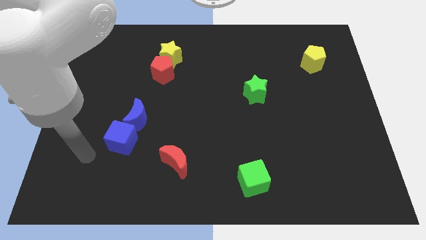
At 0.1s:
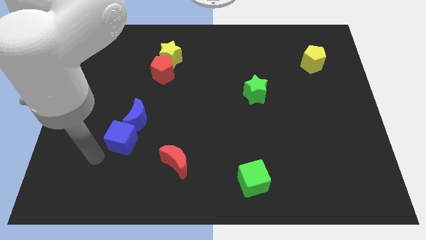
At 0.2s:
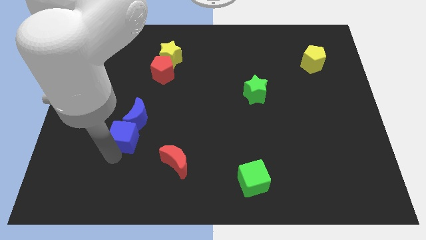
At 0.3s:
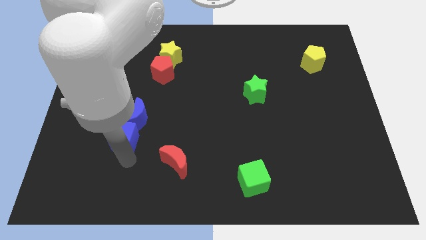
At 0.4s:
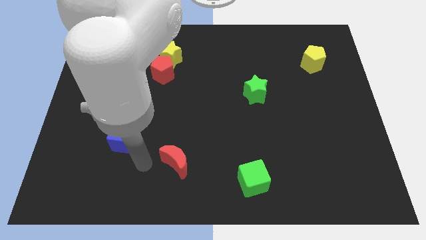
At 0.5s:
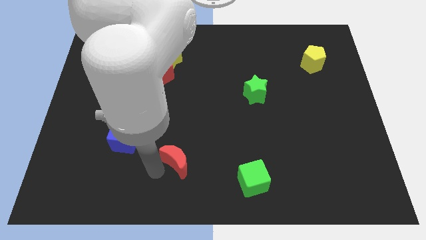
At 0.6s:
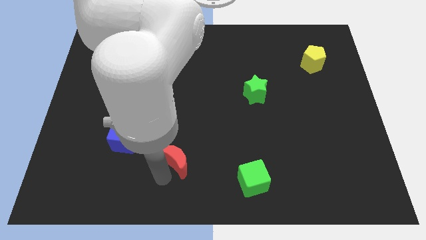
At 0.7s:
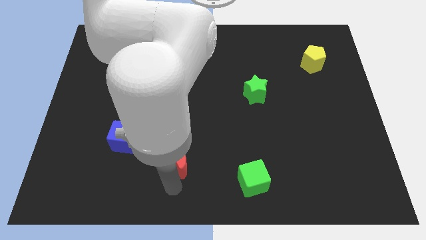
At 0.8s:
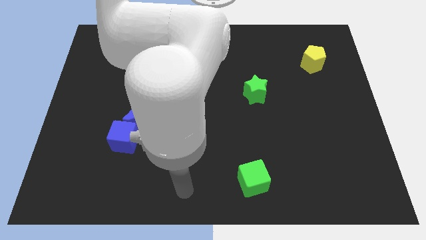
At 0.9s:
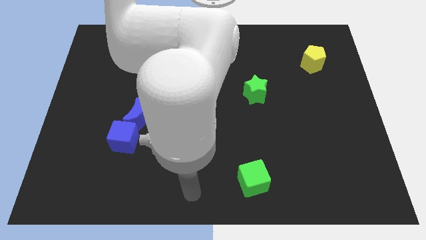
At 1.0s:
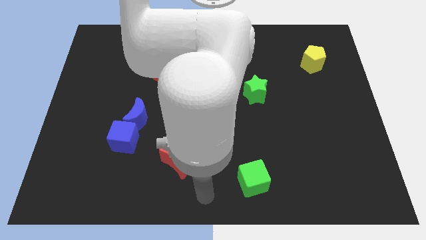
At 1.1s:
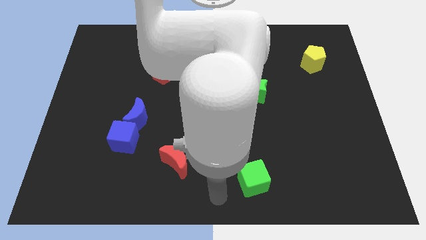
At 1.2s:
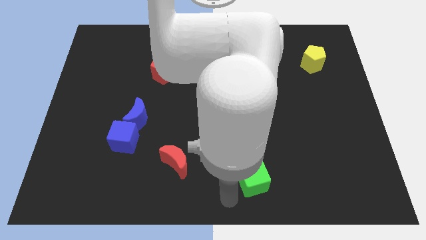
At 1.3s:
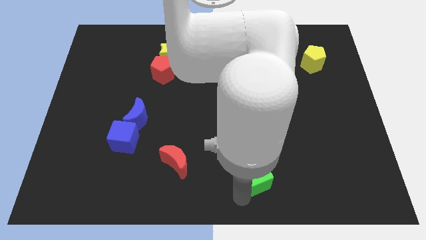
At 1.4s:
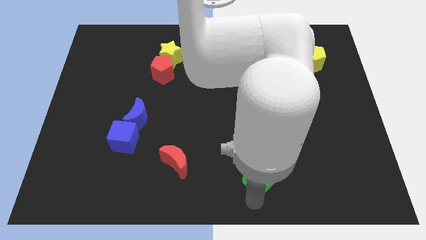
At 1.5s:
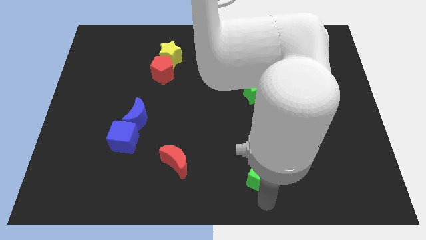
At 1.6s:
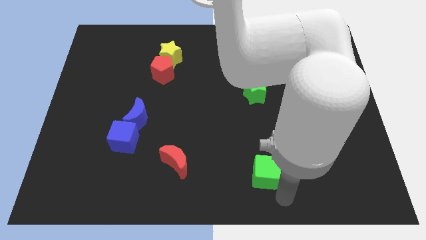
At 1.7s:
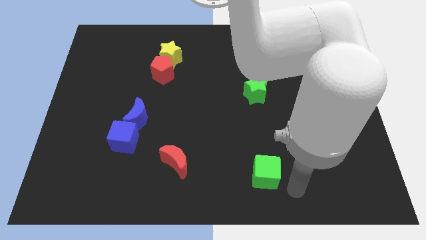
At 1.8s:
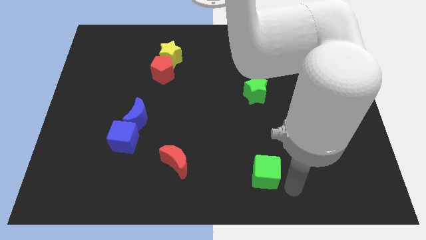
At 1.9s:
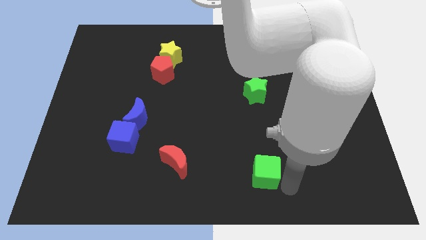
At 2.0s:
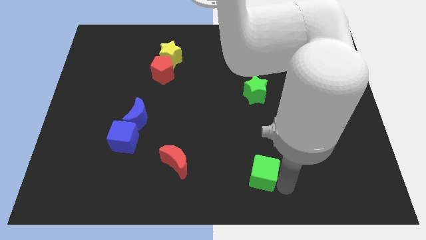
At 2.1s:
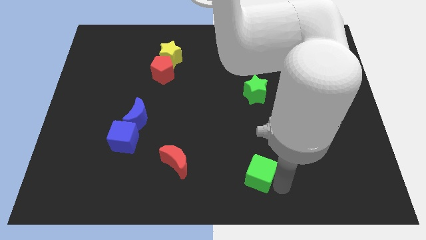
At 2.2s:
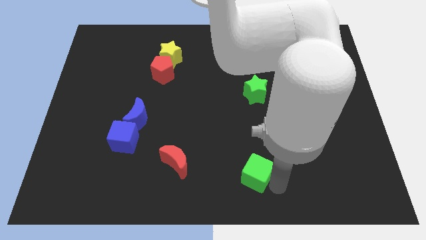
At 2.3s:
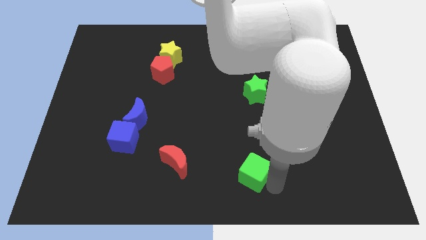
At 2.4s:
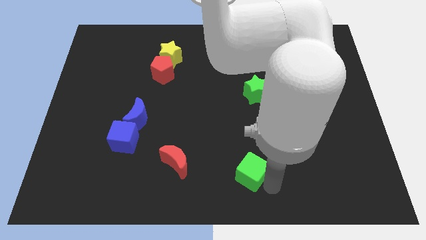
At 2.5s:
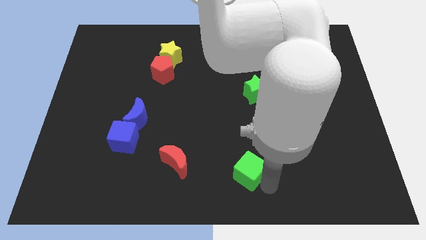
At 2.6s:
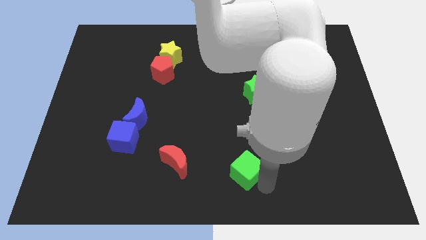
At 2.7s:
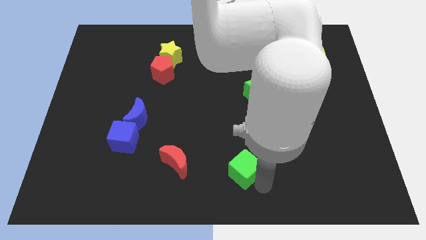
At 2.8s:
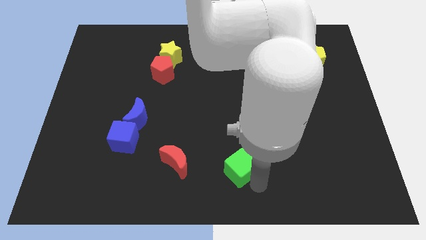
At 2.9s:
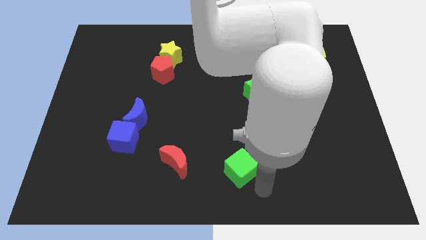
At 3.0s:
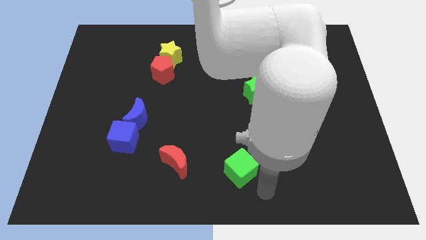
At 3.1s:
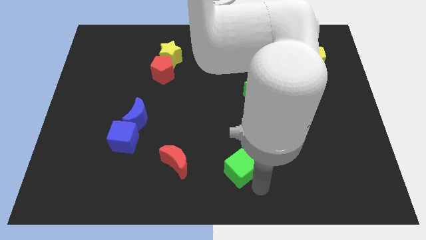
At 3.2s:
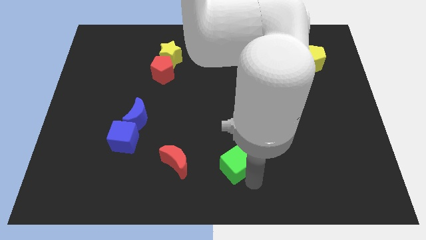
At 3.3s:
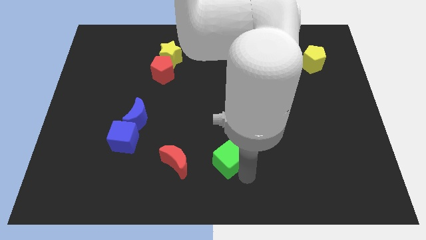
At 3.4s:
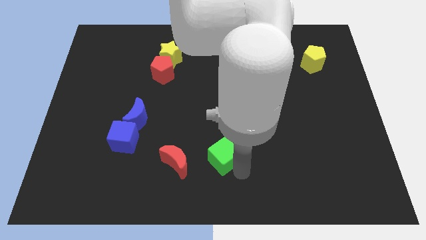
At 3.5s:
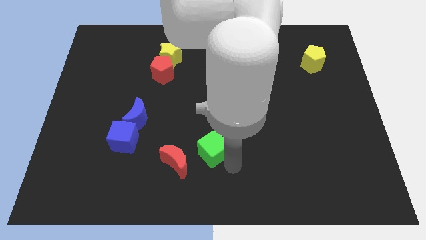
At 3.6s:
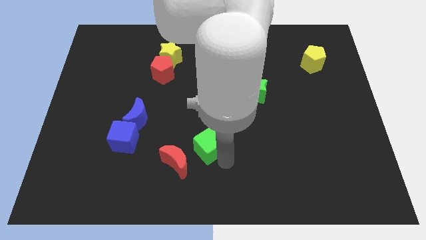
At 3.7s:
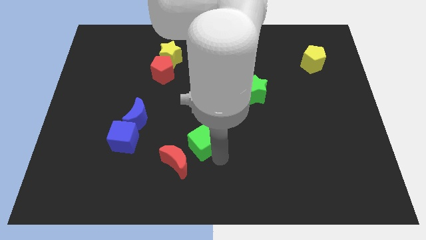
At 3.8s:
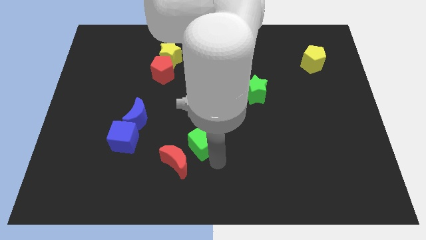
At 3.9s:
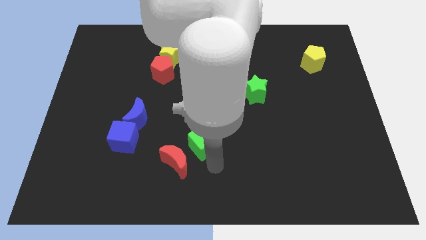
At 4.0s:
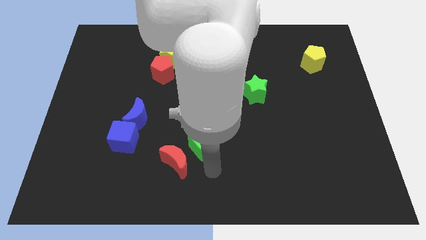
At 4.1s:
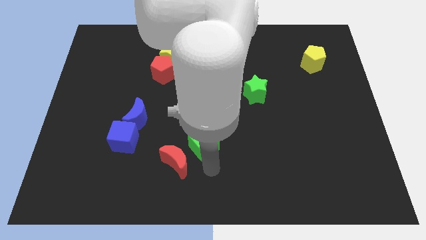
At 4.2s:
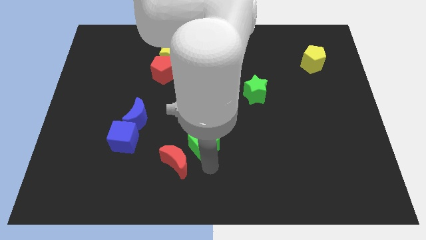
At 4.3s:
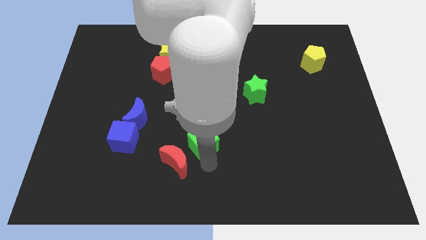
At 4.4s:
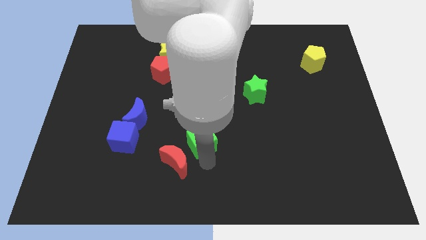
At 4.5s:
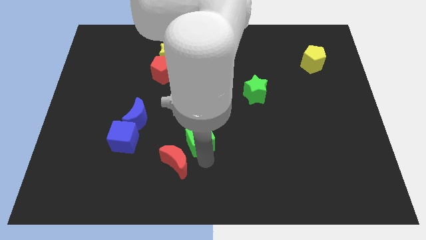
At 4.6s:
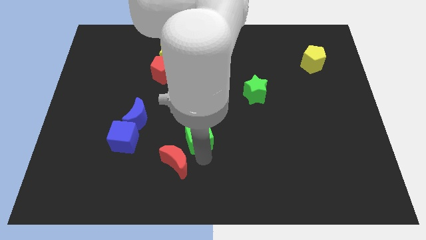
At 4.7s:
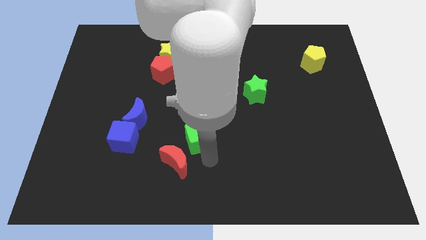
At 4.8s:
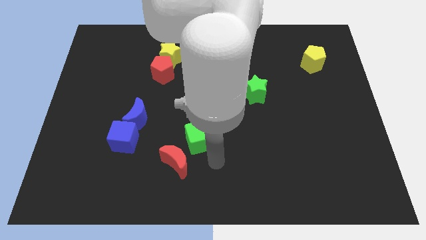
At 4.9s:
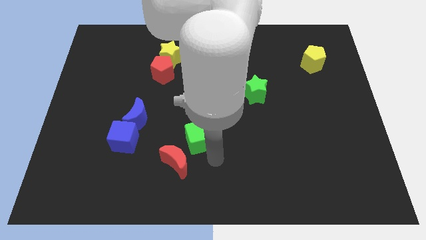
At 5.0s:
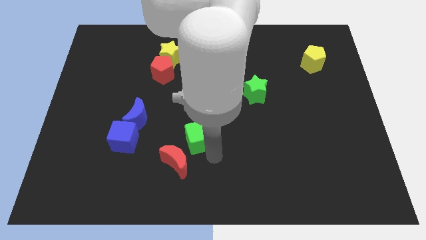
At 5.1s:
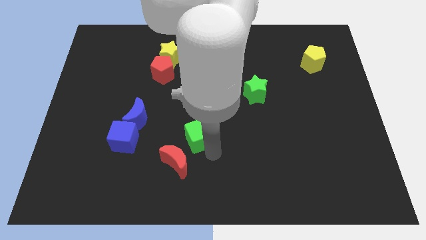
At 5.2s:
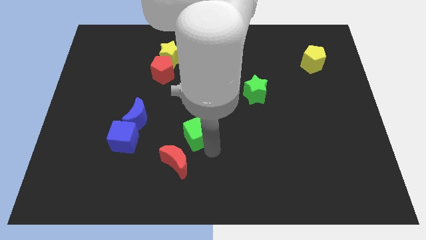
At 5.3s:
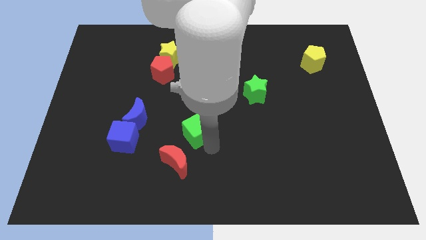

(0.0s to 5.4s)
slide the green cube to the right side of the blue moon

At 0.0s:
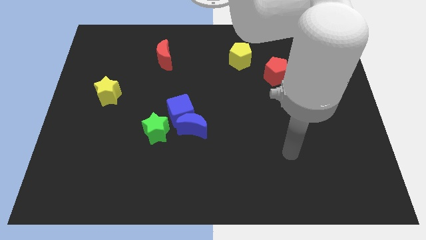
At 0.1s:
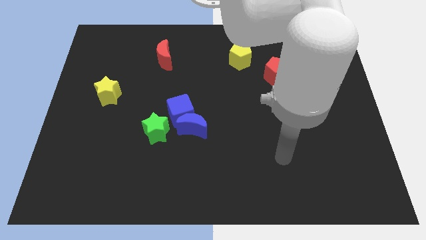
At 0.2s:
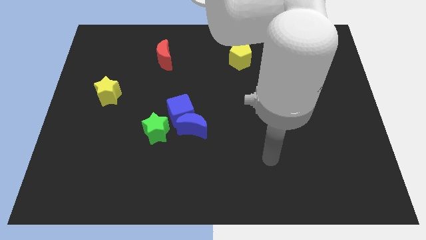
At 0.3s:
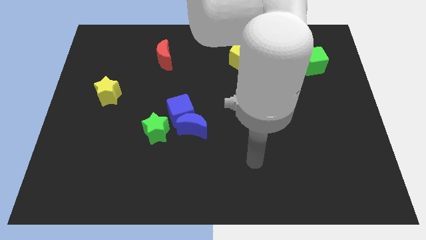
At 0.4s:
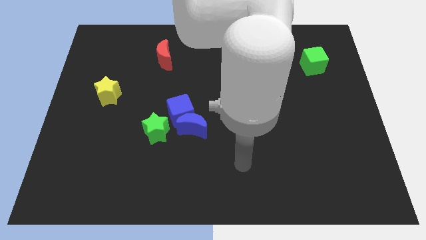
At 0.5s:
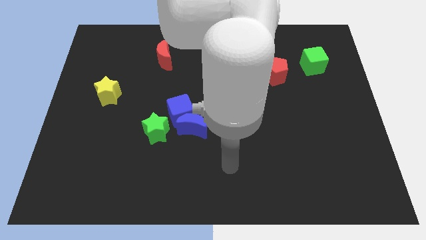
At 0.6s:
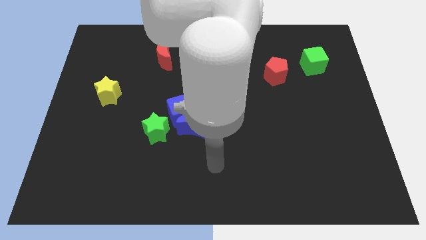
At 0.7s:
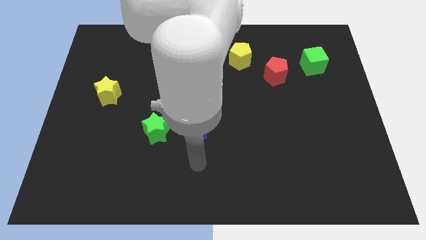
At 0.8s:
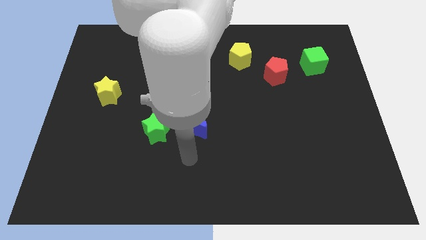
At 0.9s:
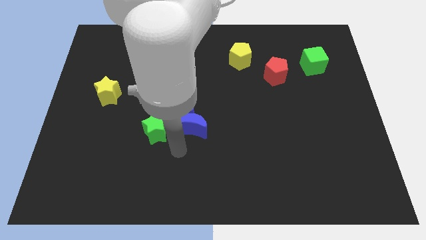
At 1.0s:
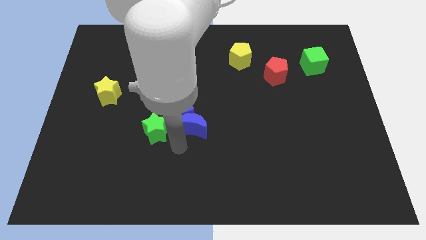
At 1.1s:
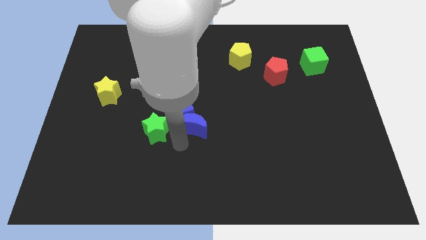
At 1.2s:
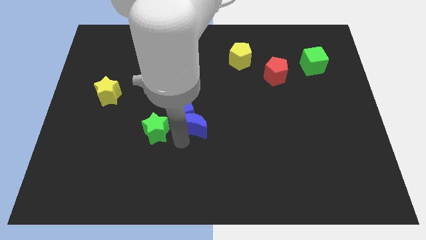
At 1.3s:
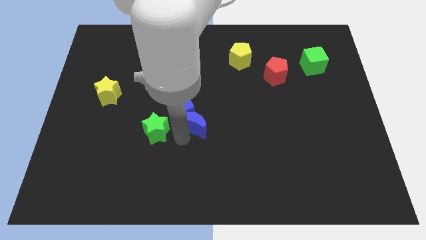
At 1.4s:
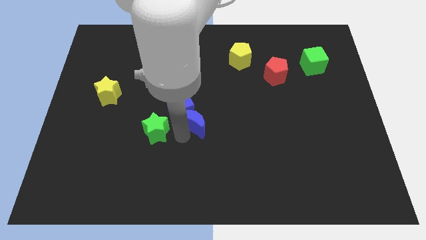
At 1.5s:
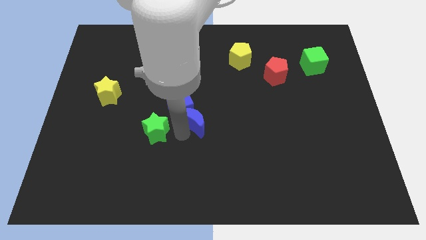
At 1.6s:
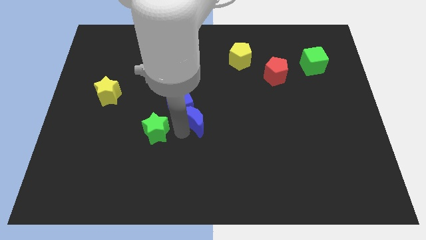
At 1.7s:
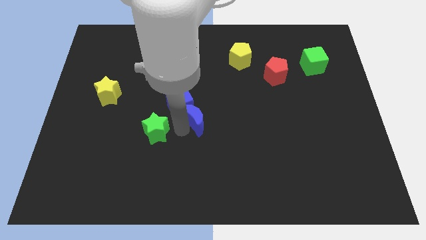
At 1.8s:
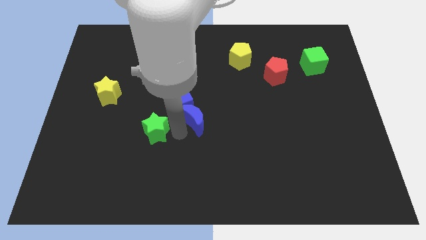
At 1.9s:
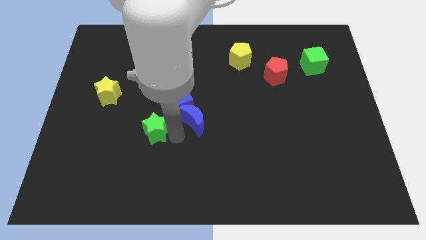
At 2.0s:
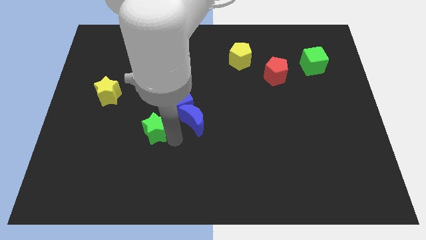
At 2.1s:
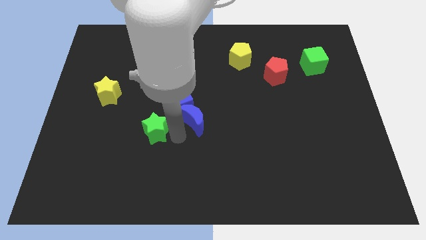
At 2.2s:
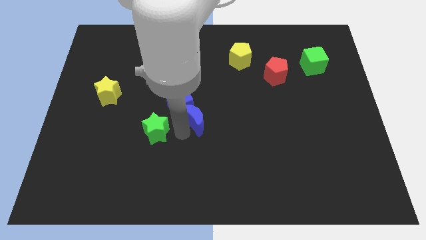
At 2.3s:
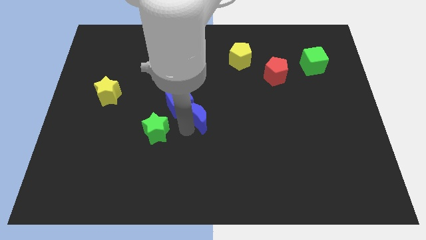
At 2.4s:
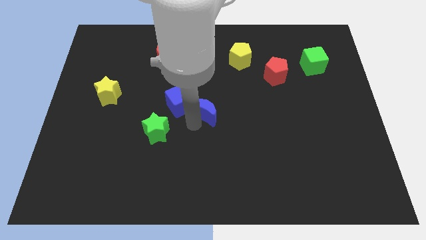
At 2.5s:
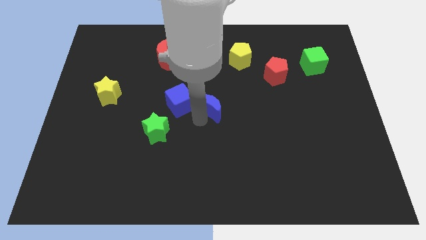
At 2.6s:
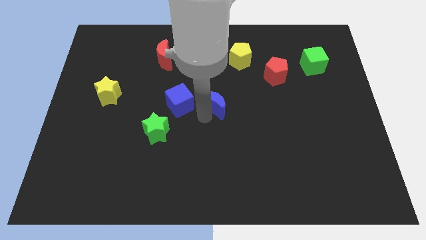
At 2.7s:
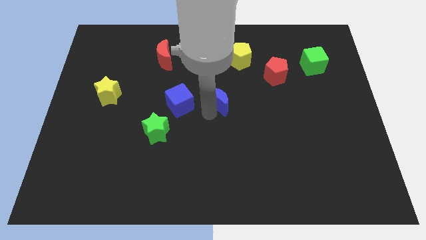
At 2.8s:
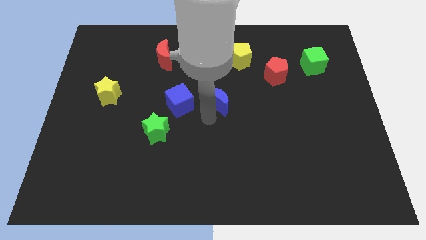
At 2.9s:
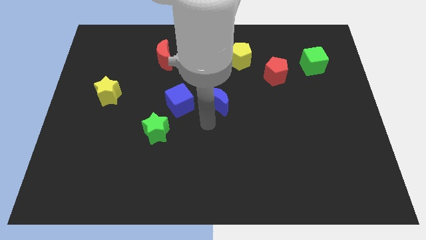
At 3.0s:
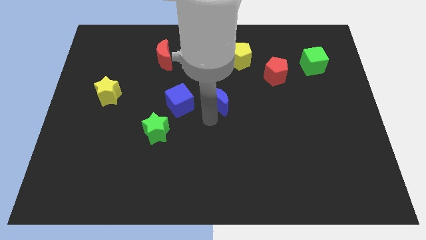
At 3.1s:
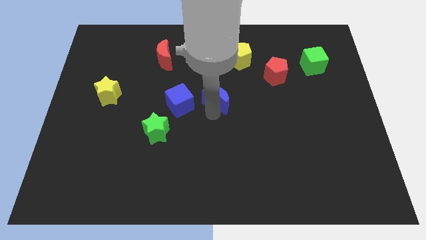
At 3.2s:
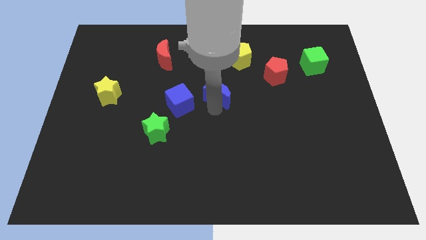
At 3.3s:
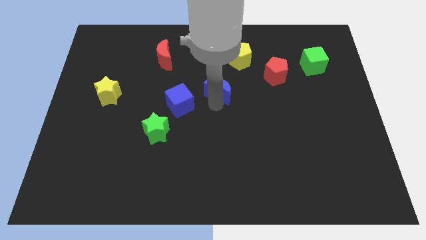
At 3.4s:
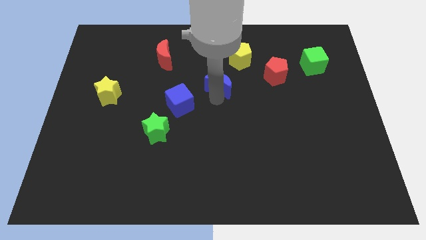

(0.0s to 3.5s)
push the blue moon left of the red pentagon
